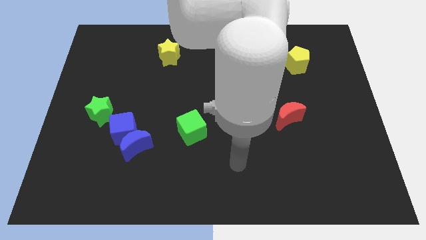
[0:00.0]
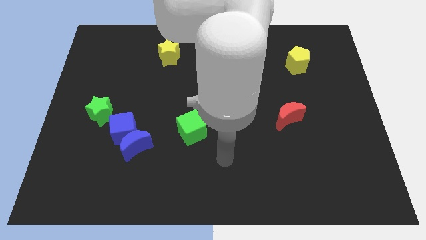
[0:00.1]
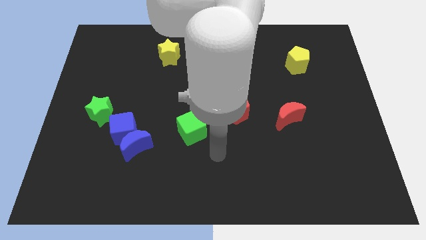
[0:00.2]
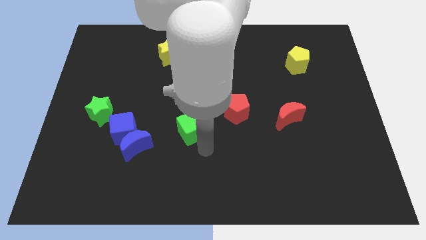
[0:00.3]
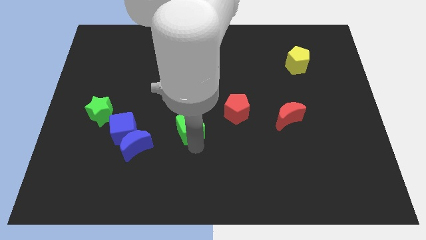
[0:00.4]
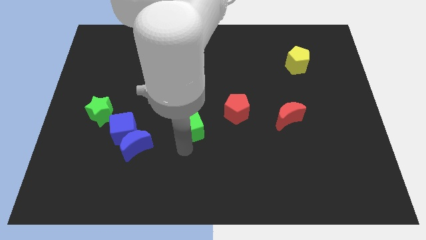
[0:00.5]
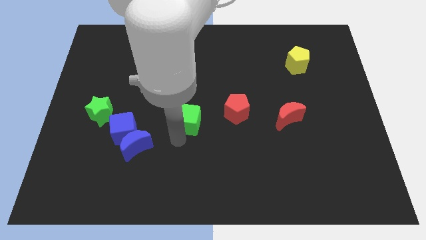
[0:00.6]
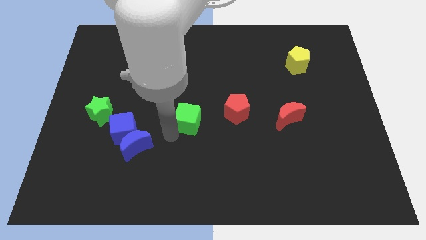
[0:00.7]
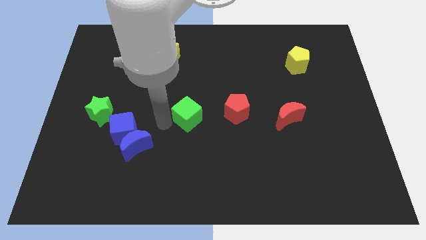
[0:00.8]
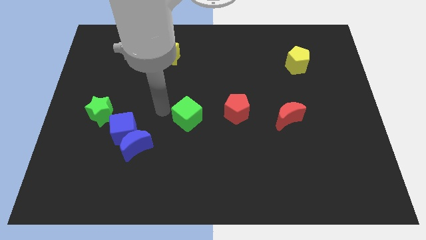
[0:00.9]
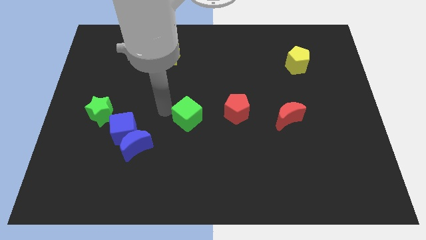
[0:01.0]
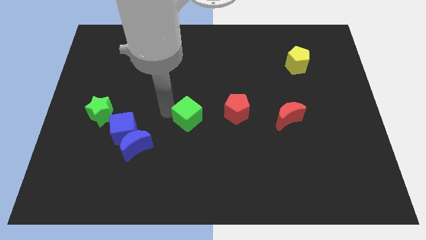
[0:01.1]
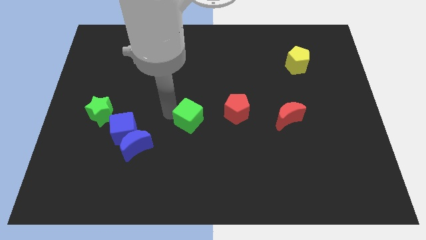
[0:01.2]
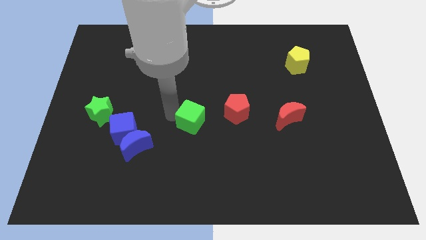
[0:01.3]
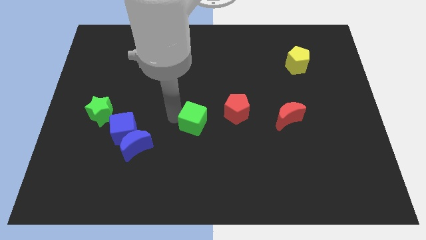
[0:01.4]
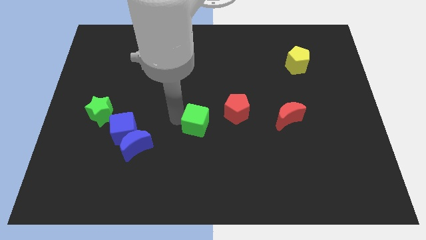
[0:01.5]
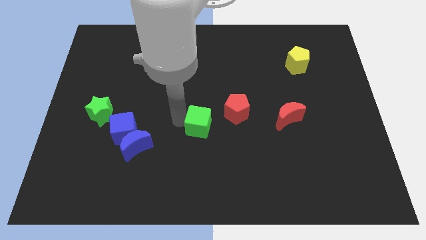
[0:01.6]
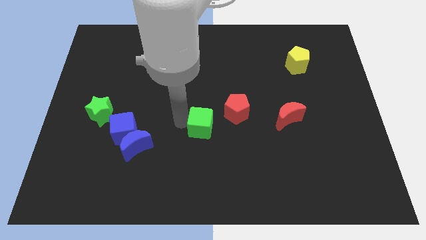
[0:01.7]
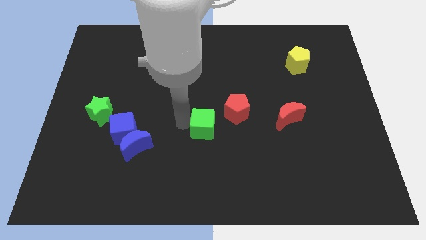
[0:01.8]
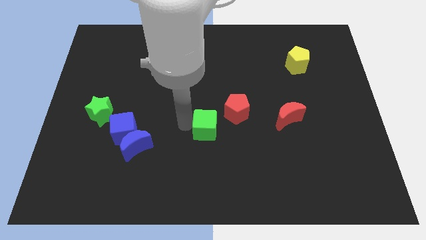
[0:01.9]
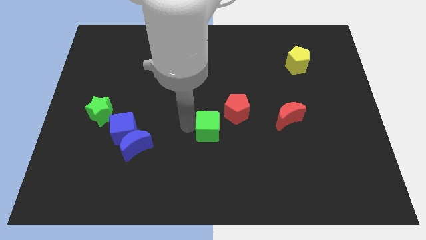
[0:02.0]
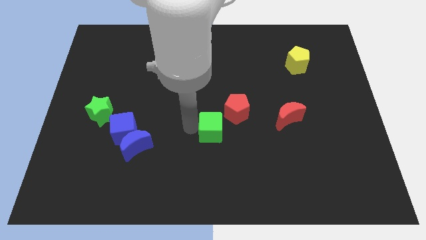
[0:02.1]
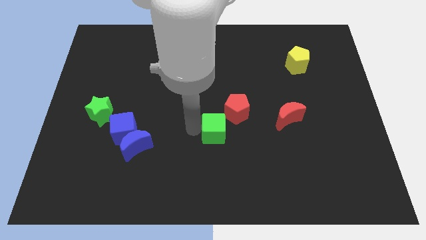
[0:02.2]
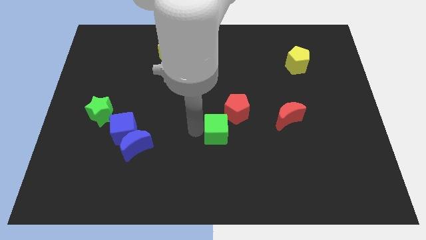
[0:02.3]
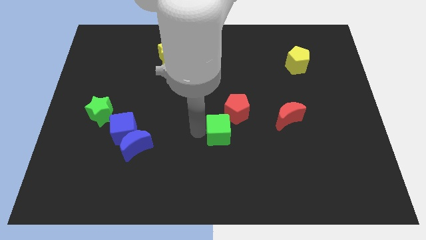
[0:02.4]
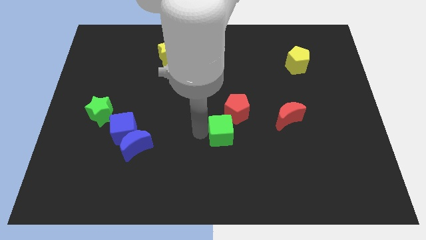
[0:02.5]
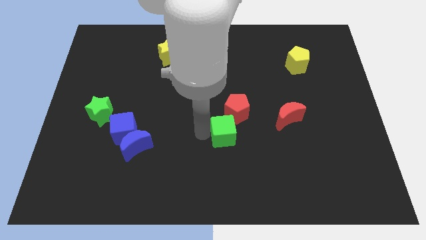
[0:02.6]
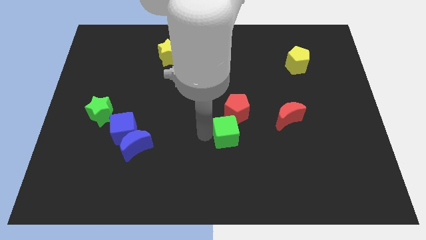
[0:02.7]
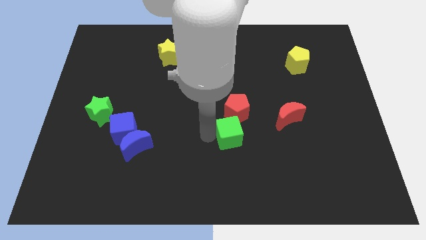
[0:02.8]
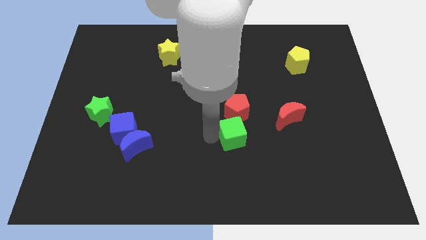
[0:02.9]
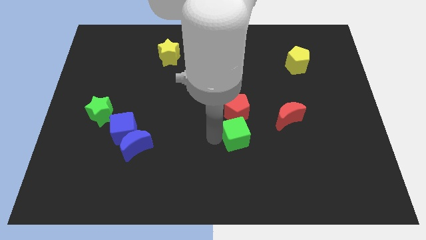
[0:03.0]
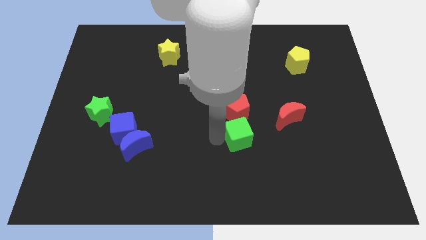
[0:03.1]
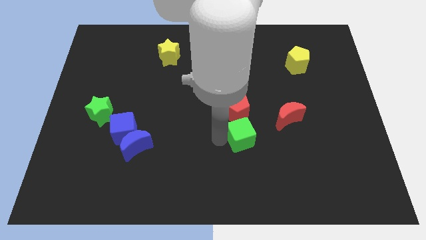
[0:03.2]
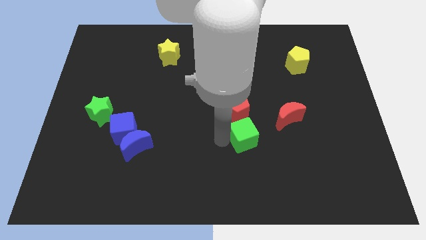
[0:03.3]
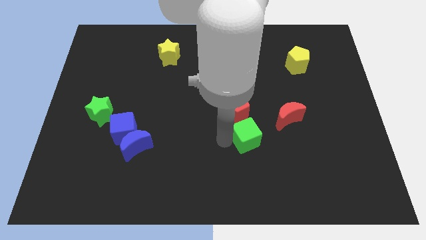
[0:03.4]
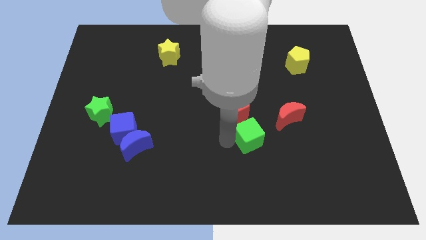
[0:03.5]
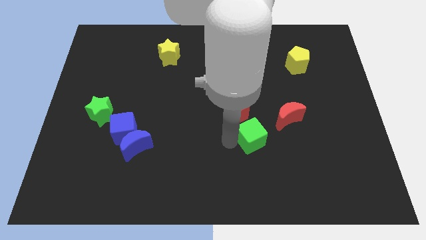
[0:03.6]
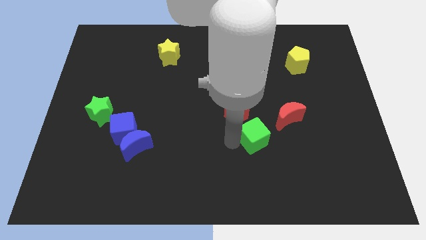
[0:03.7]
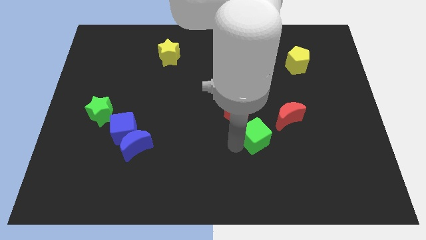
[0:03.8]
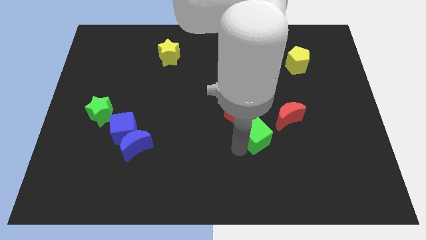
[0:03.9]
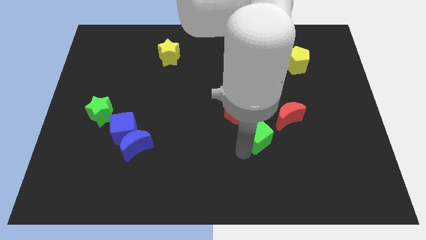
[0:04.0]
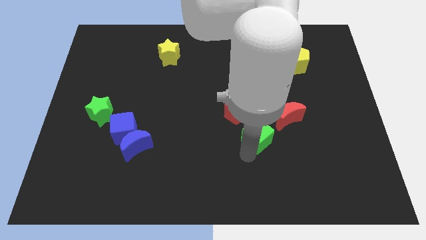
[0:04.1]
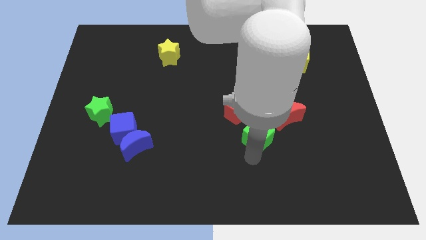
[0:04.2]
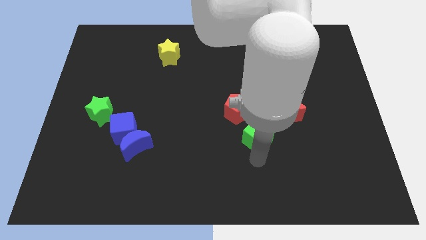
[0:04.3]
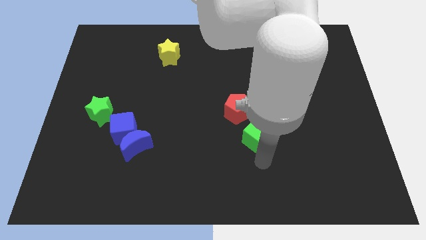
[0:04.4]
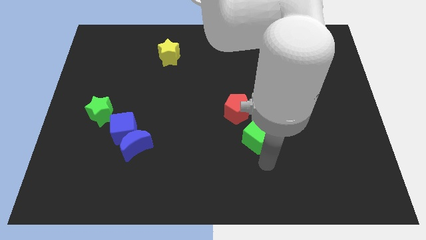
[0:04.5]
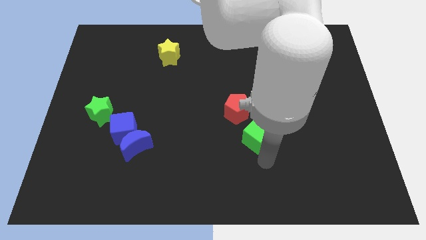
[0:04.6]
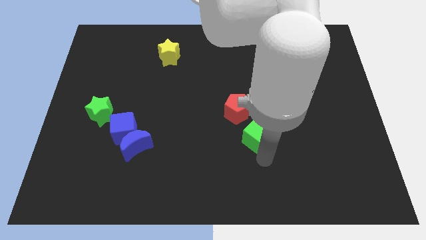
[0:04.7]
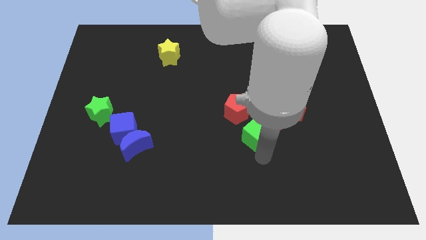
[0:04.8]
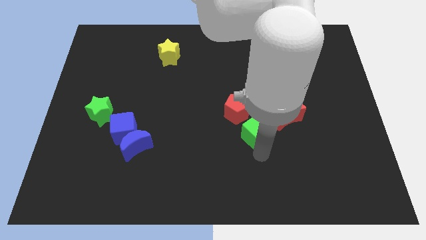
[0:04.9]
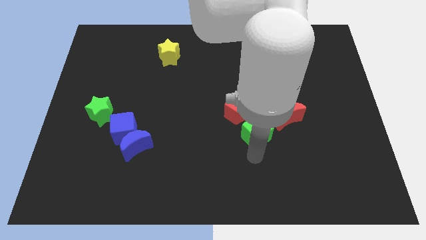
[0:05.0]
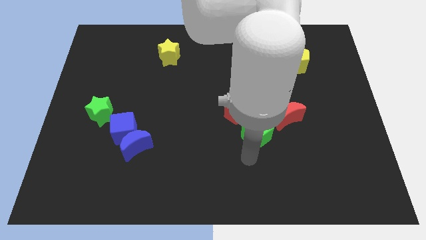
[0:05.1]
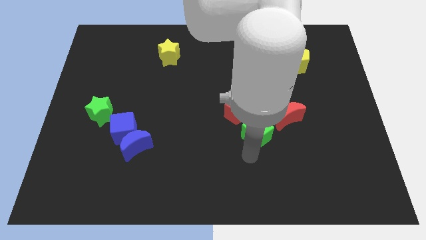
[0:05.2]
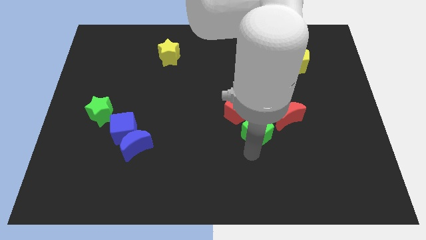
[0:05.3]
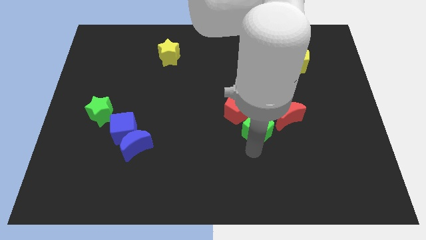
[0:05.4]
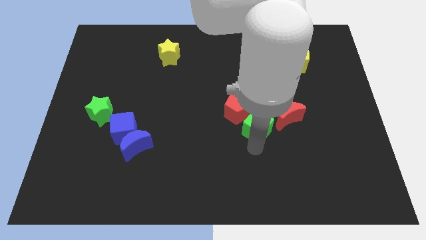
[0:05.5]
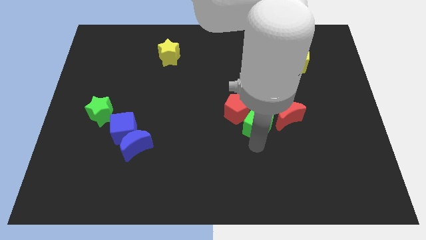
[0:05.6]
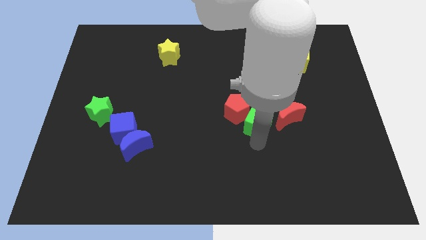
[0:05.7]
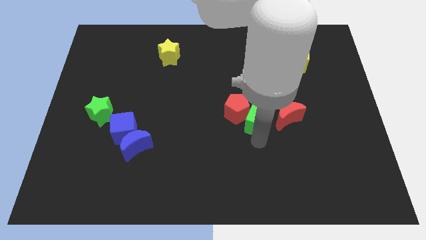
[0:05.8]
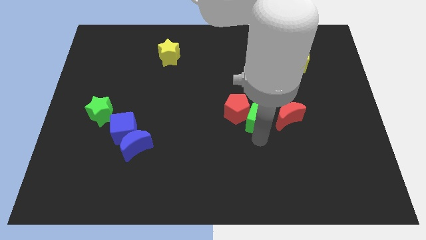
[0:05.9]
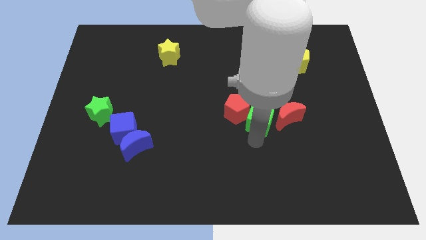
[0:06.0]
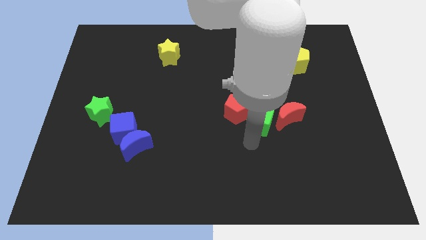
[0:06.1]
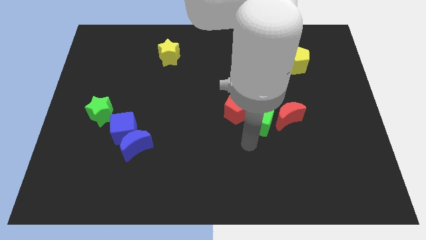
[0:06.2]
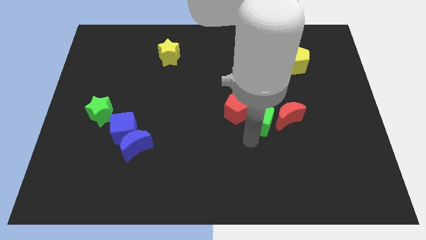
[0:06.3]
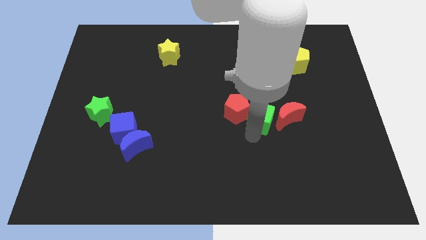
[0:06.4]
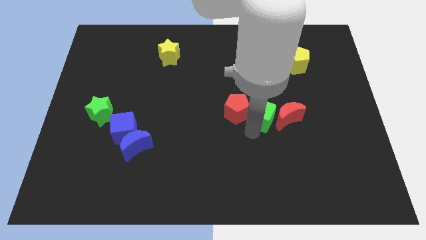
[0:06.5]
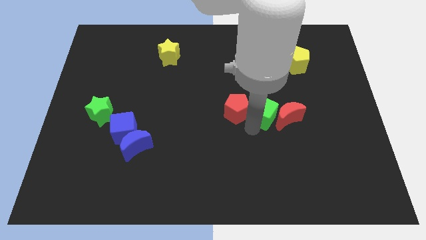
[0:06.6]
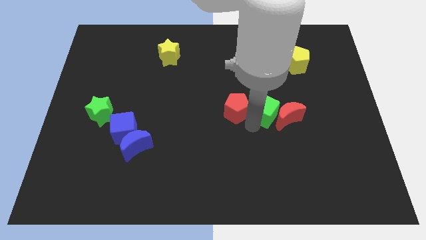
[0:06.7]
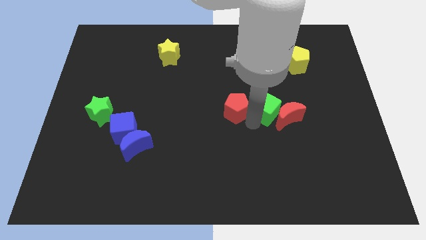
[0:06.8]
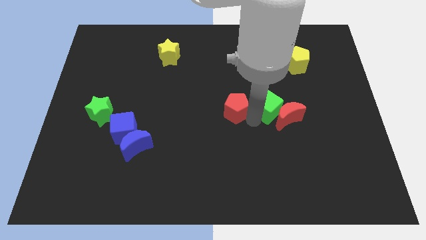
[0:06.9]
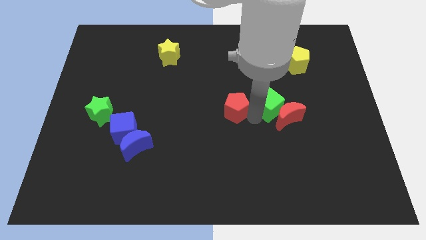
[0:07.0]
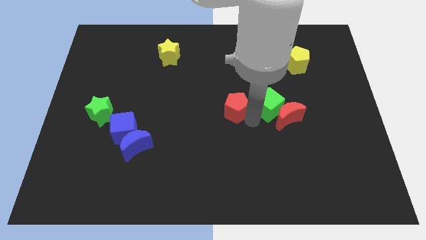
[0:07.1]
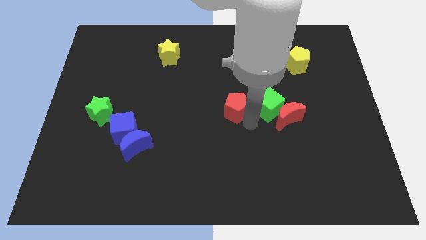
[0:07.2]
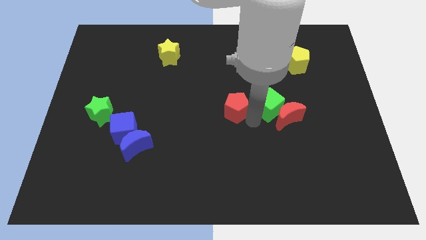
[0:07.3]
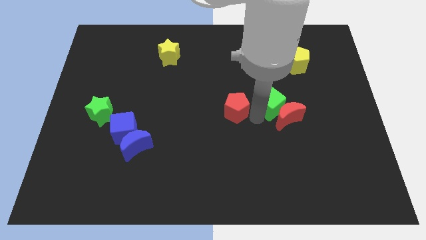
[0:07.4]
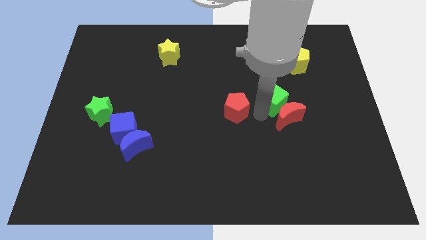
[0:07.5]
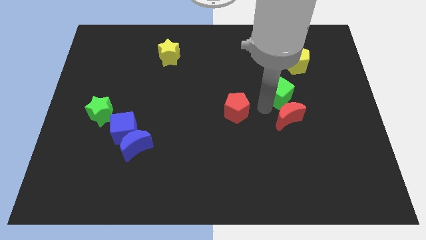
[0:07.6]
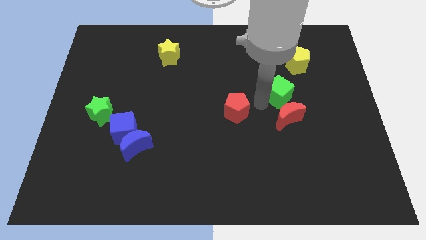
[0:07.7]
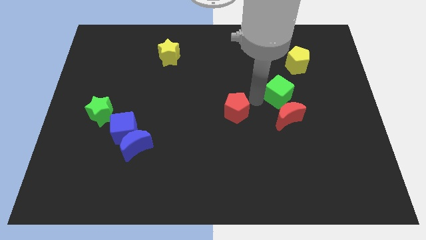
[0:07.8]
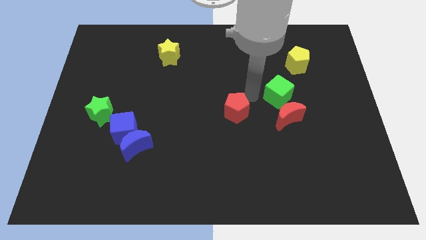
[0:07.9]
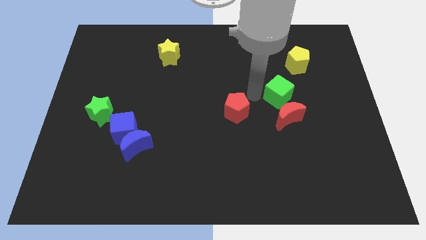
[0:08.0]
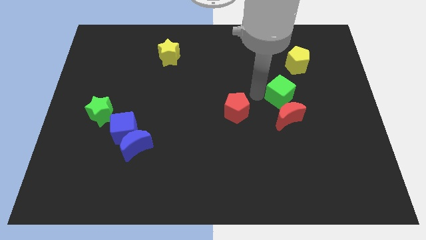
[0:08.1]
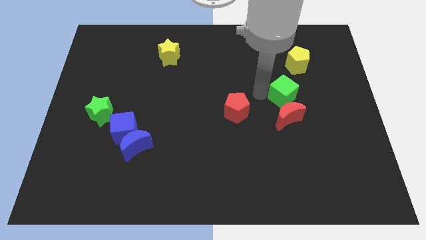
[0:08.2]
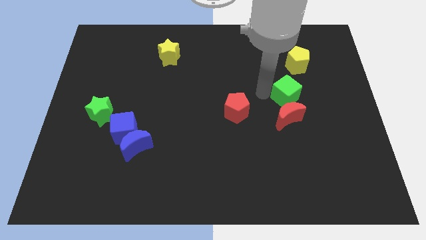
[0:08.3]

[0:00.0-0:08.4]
put the green cube to the bottom side of the yellow pentagon
